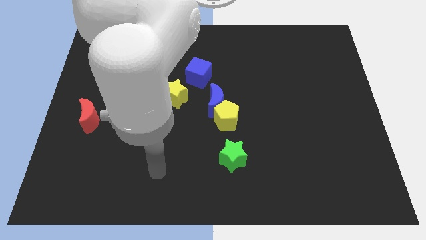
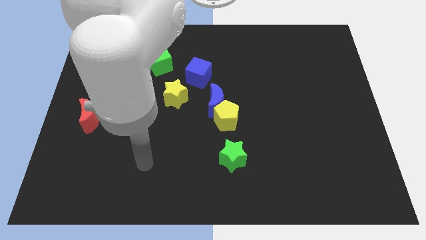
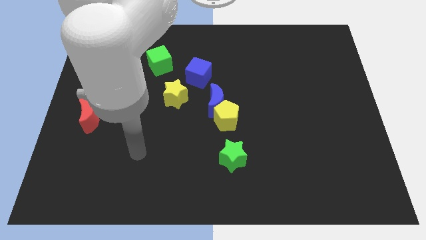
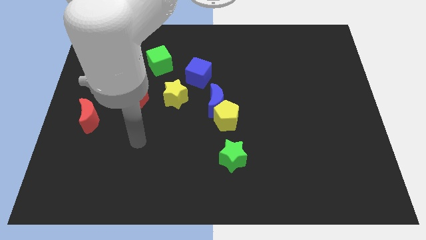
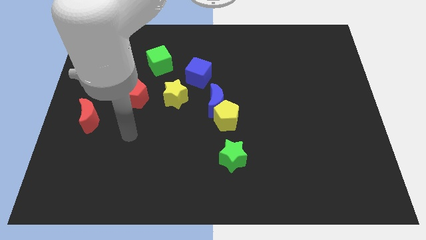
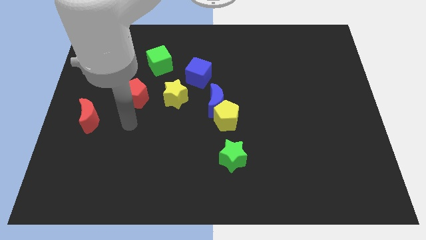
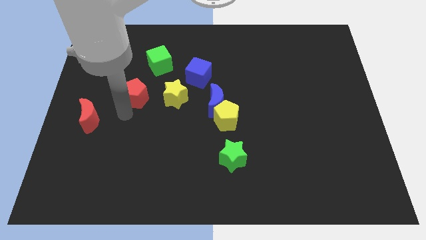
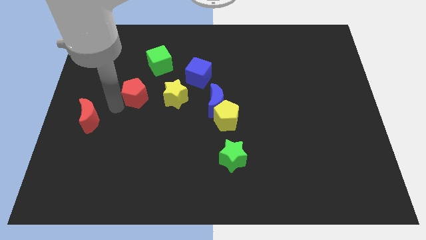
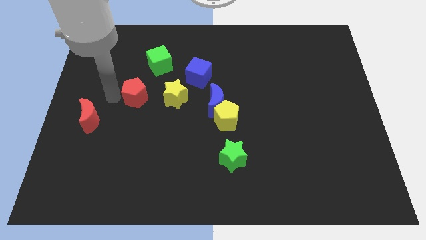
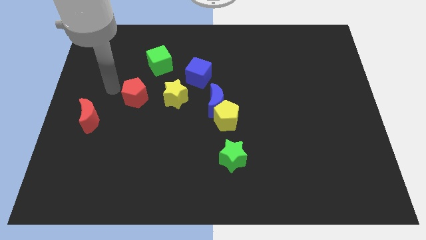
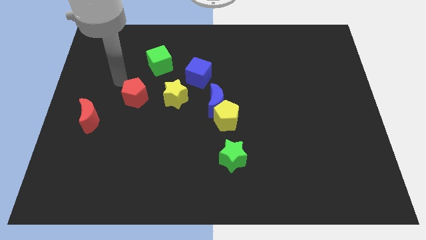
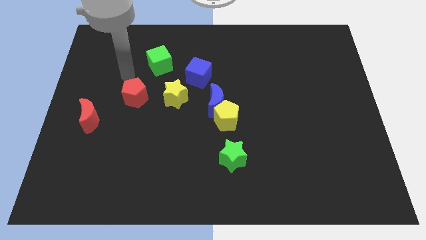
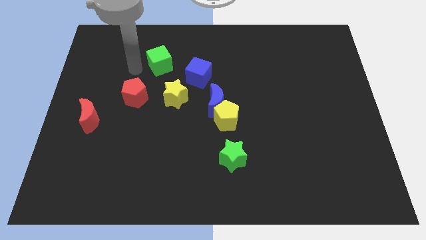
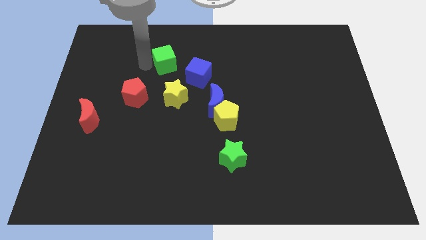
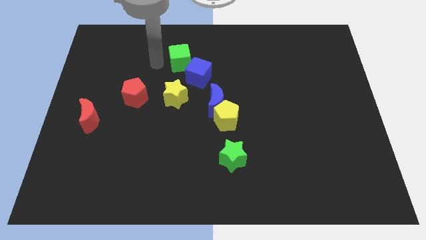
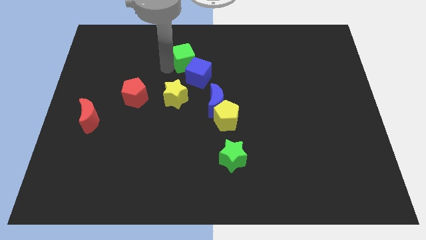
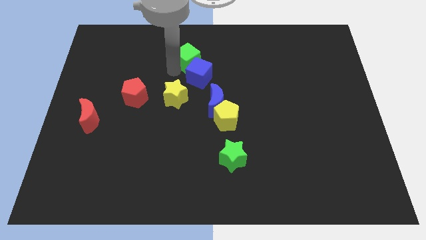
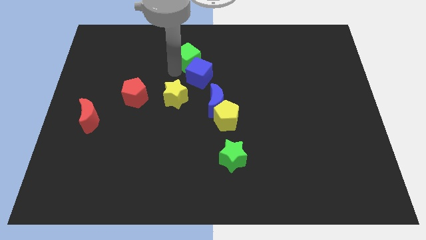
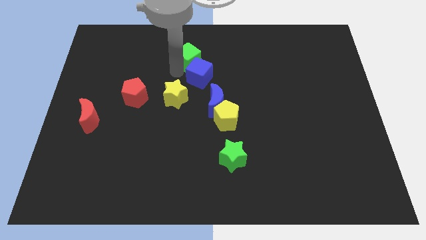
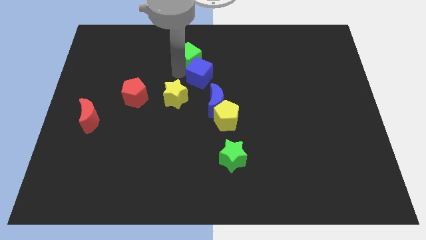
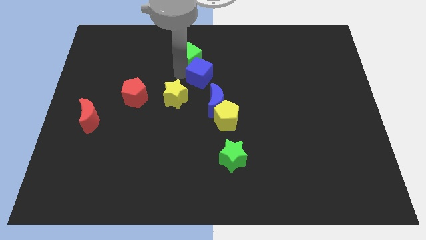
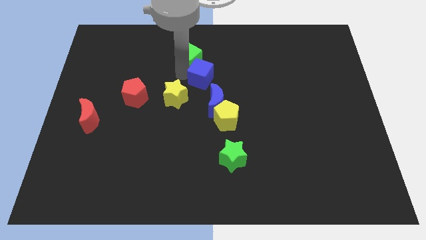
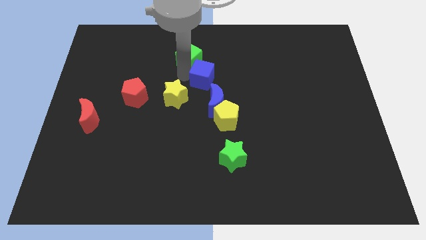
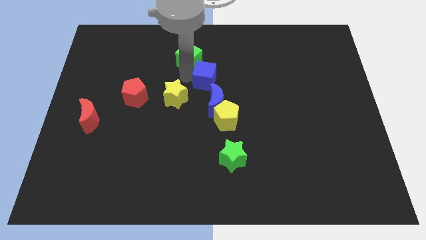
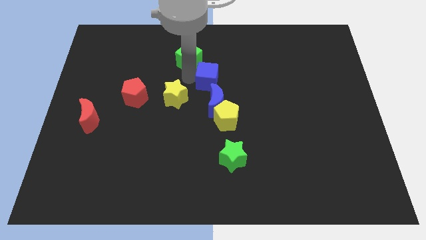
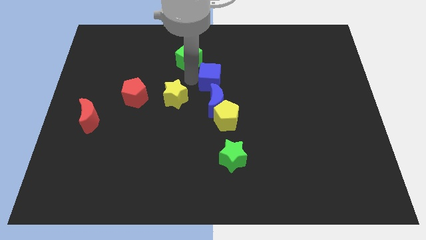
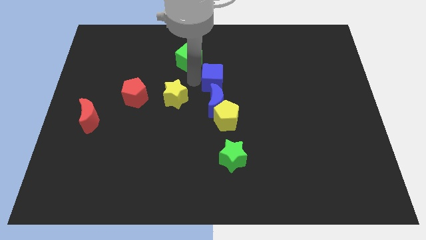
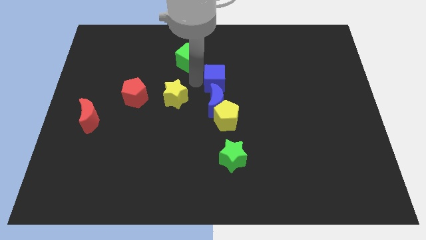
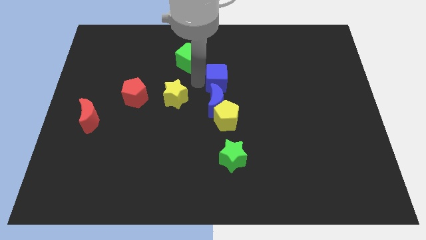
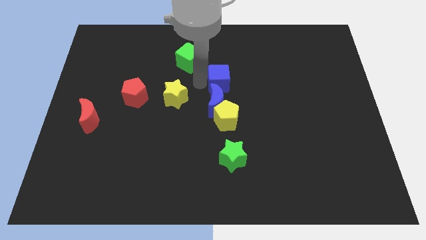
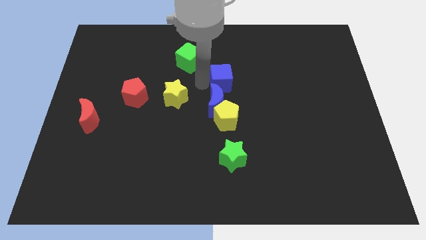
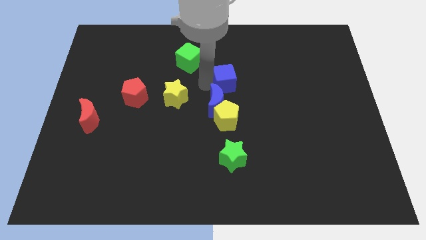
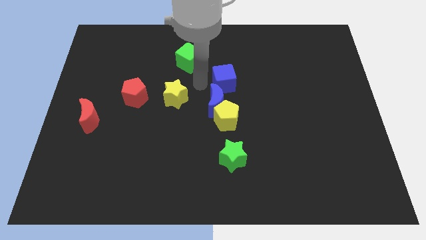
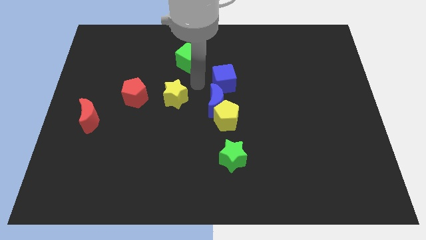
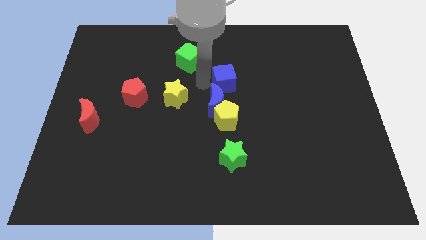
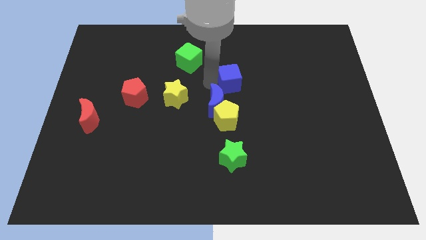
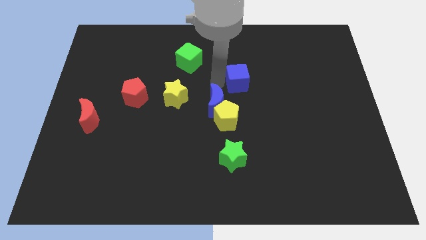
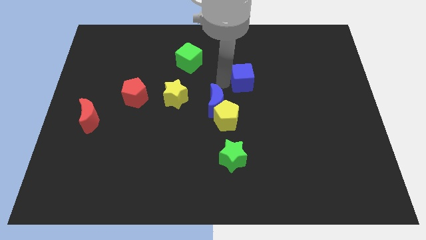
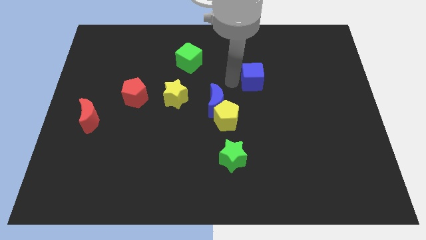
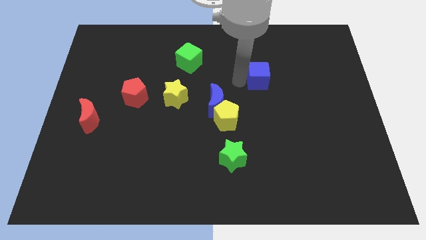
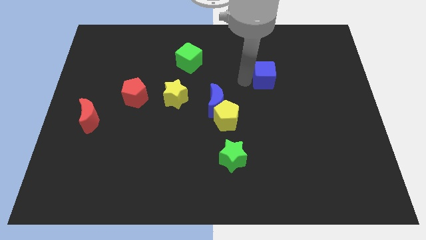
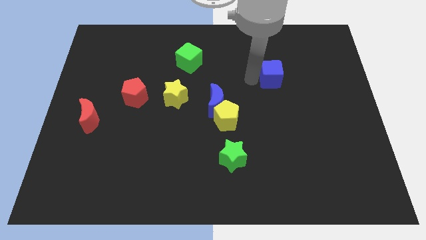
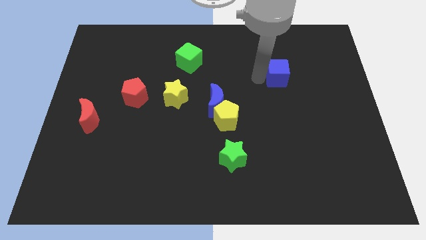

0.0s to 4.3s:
move the blue cube to the right

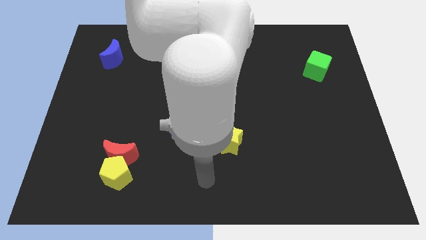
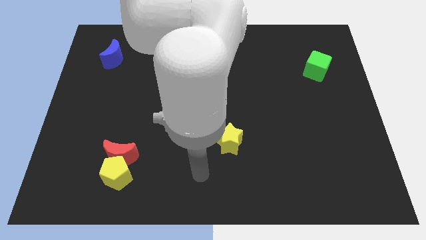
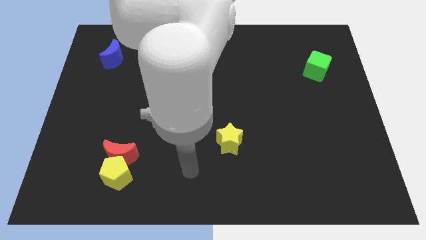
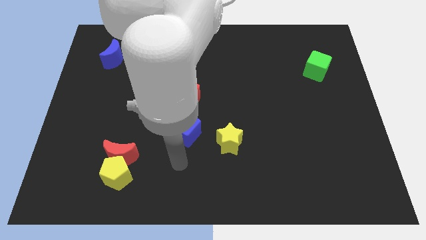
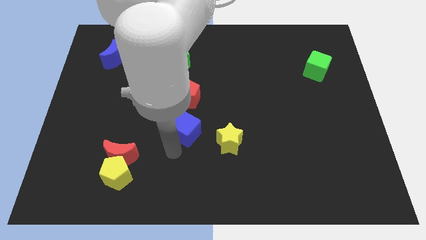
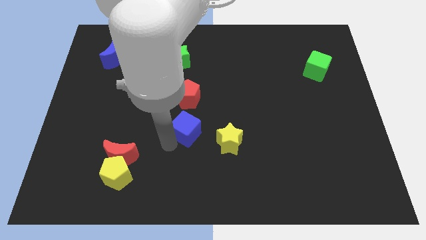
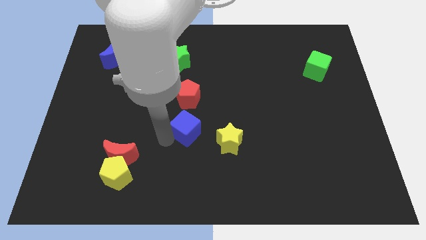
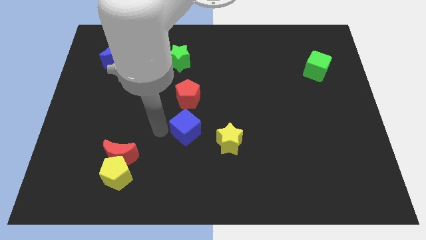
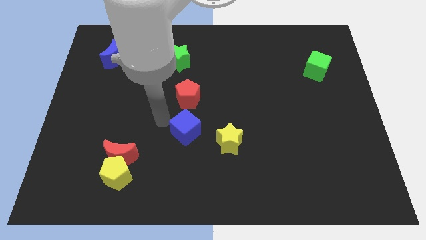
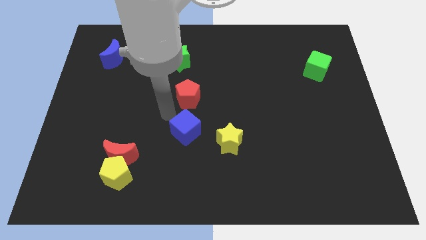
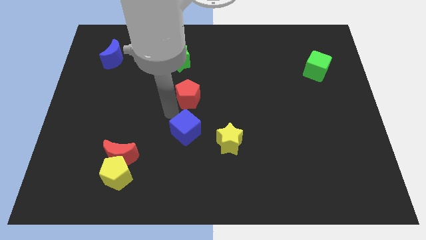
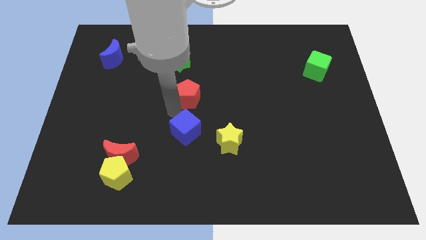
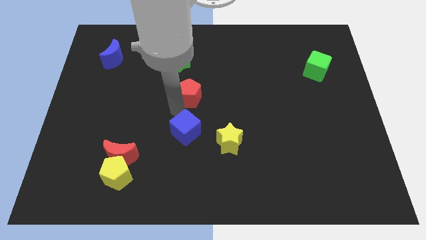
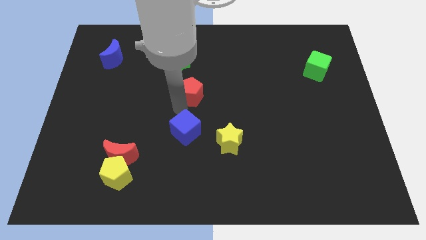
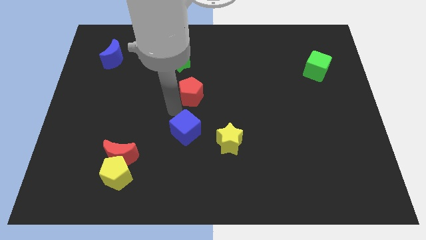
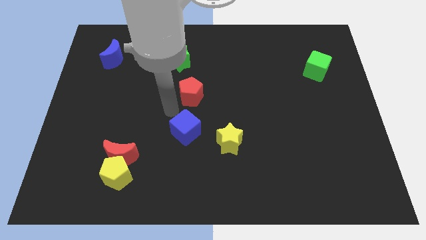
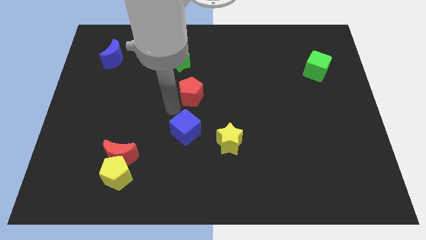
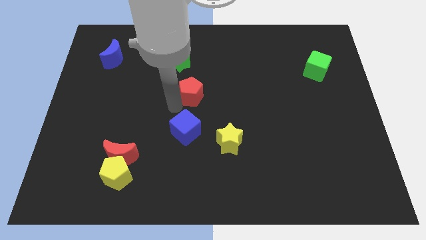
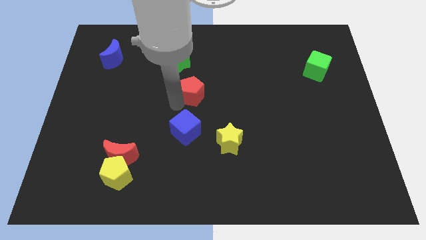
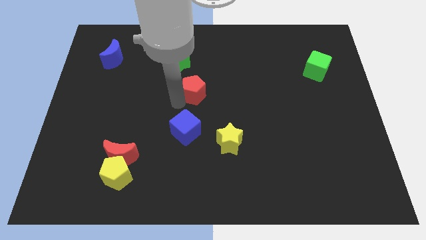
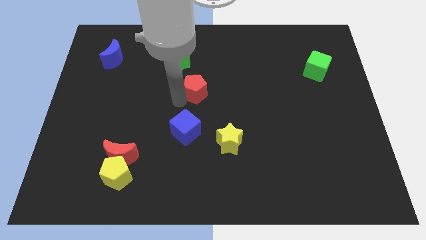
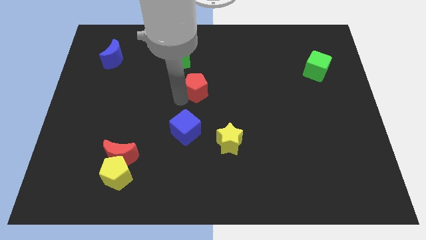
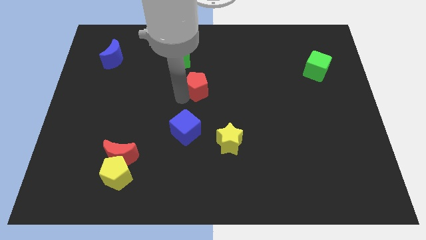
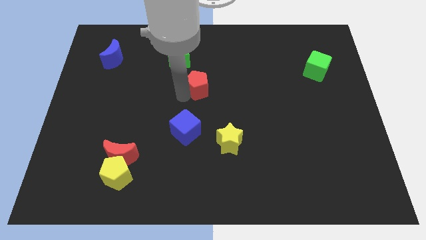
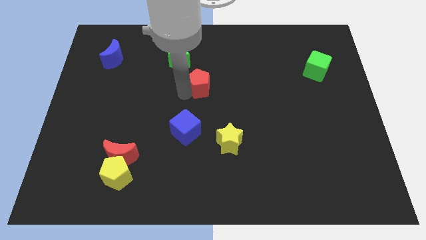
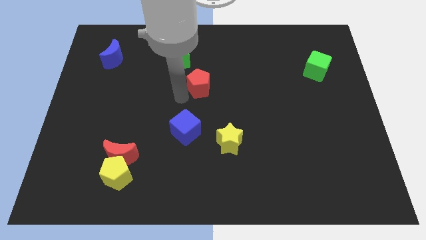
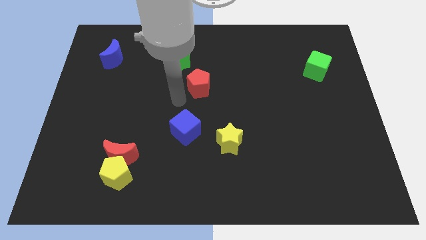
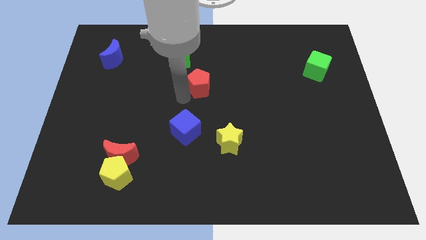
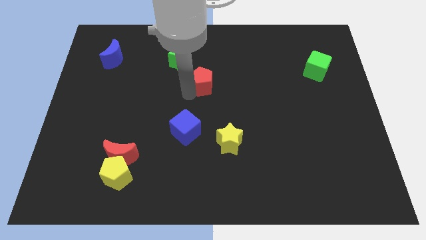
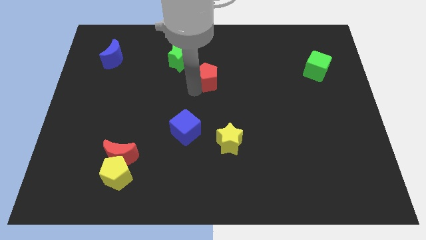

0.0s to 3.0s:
push the red pentagon upwards and right a little bit

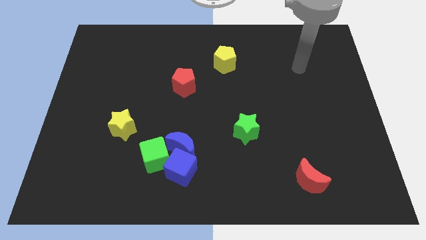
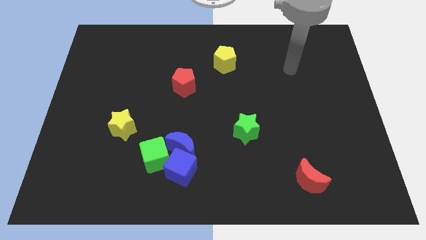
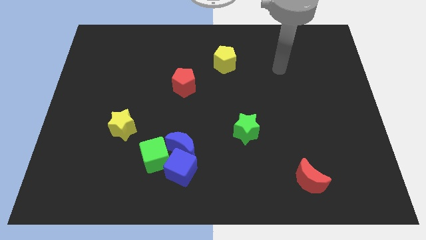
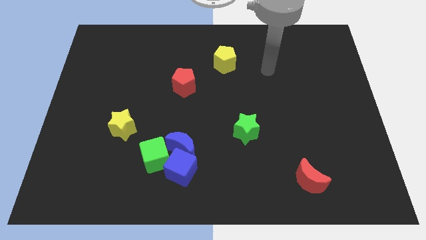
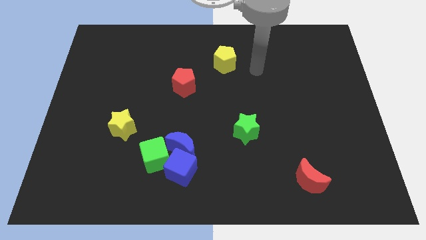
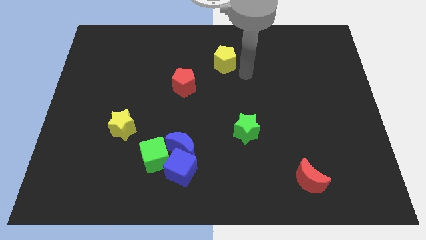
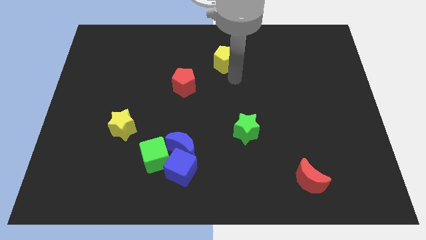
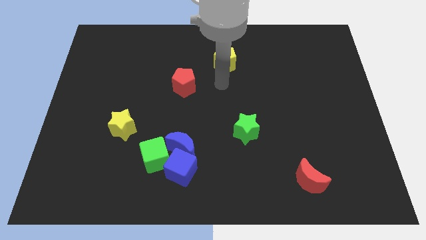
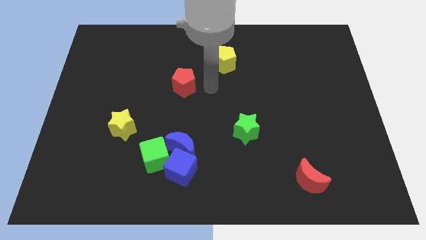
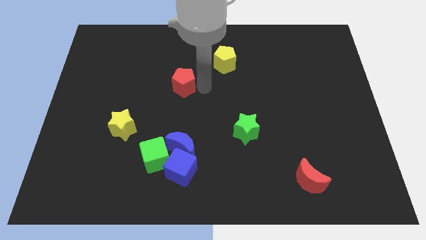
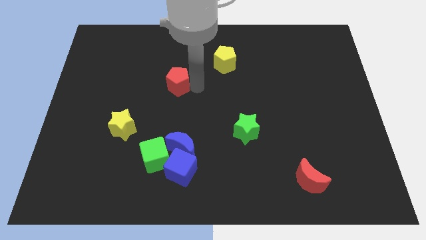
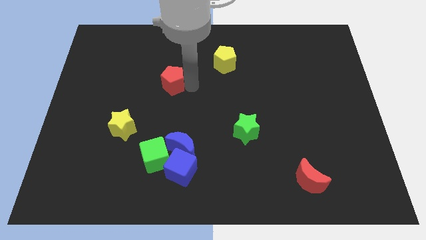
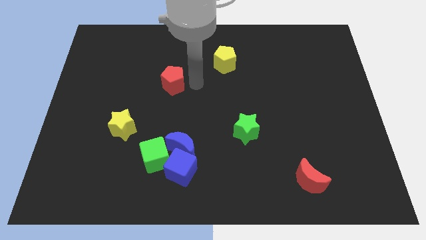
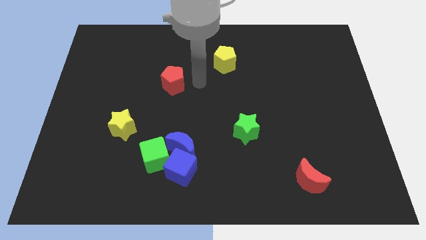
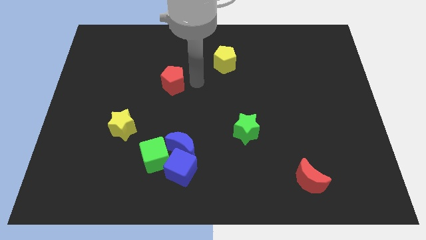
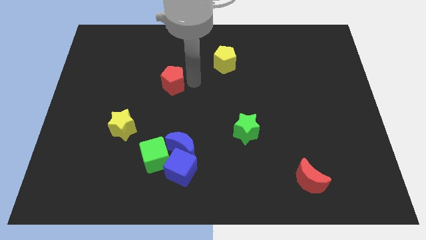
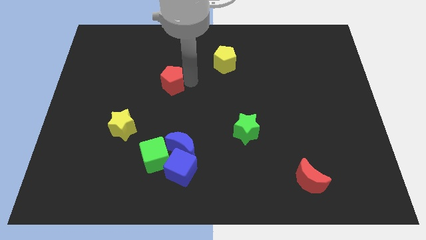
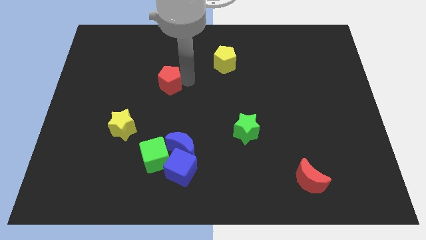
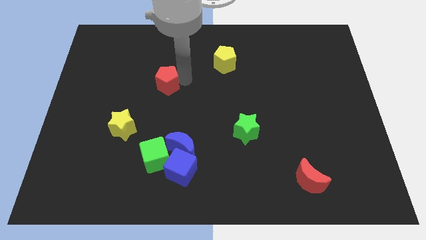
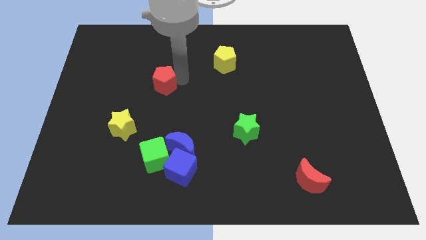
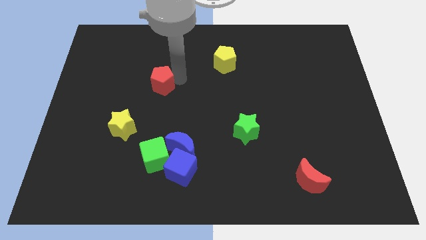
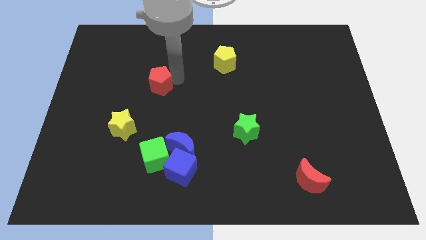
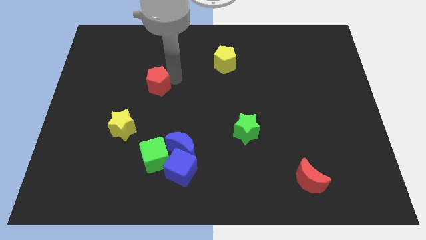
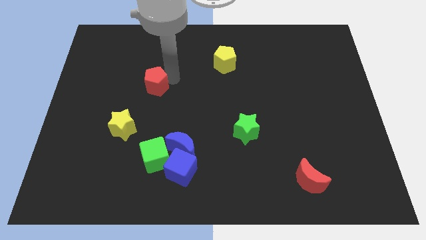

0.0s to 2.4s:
slide the red pentagon left a little
